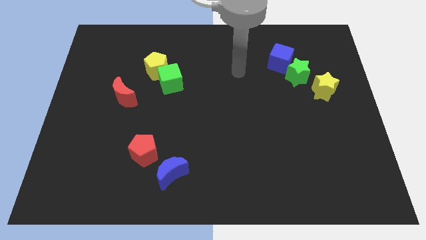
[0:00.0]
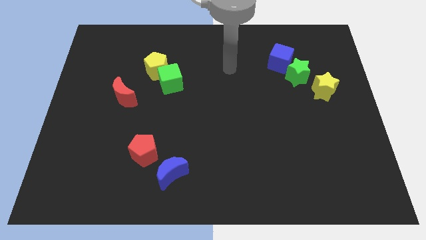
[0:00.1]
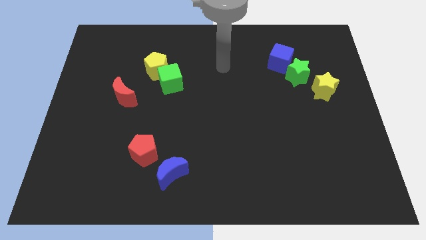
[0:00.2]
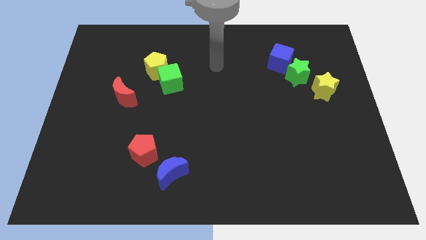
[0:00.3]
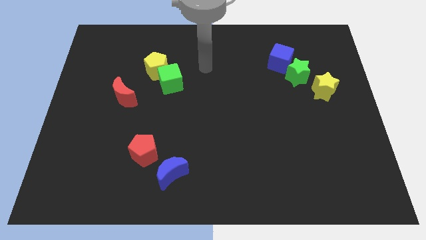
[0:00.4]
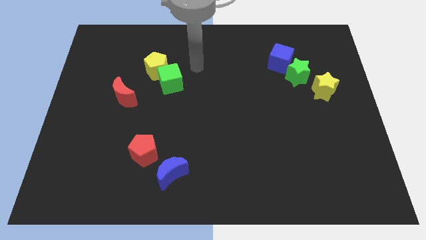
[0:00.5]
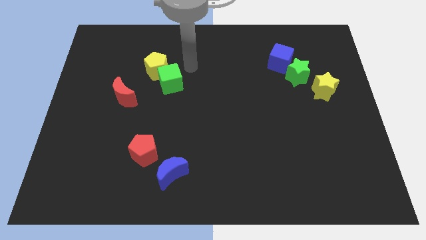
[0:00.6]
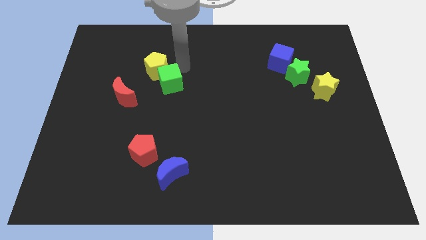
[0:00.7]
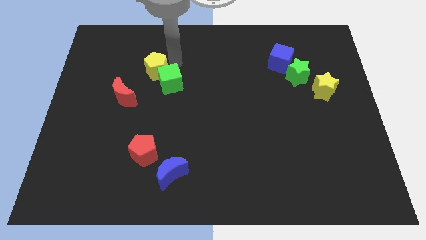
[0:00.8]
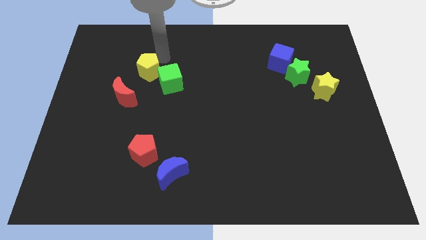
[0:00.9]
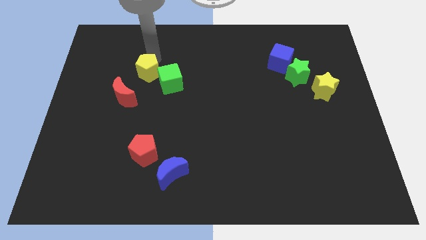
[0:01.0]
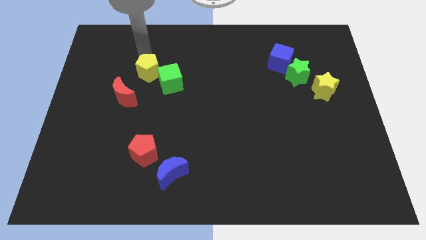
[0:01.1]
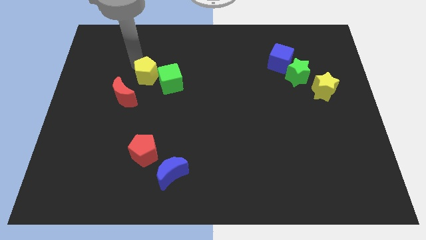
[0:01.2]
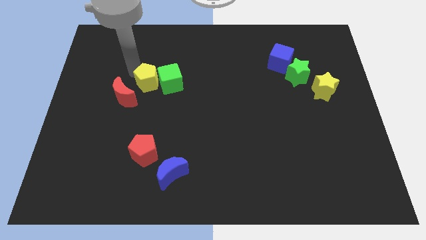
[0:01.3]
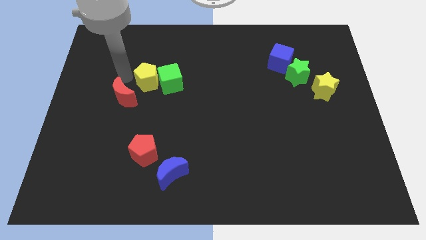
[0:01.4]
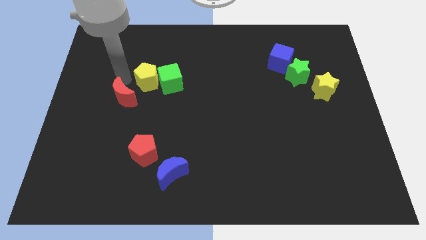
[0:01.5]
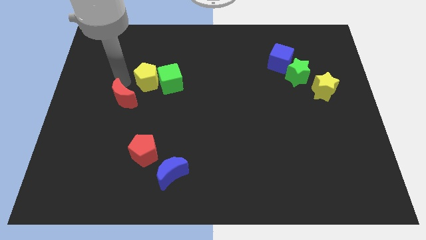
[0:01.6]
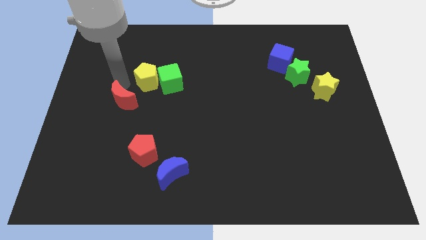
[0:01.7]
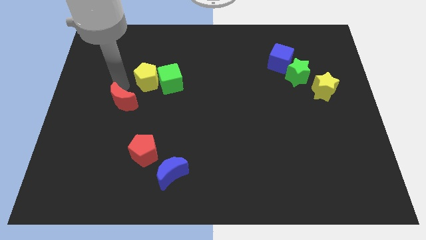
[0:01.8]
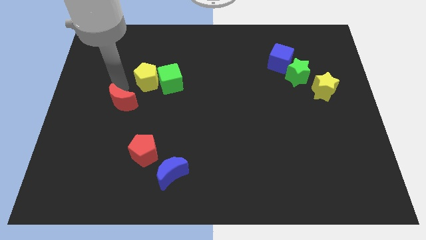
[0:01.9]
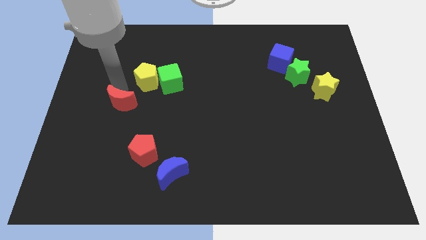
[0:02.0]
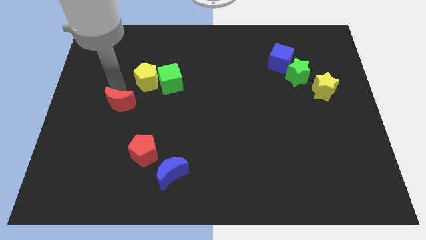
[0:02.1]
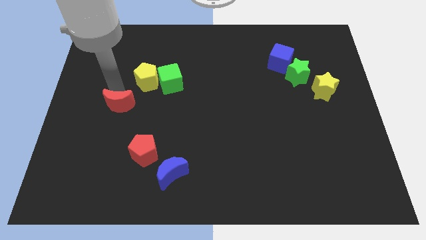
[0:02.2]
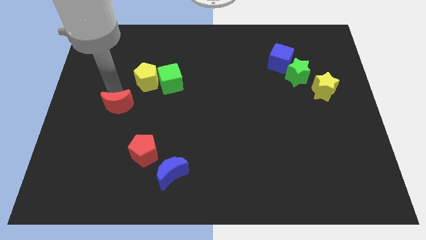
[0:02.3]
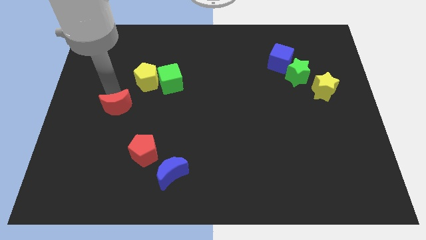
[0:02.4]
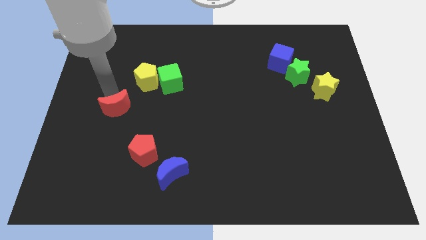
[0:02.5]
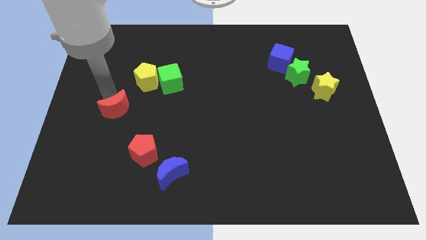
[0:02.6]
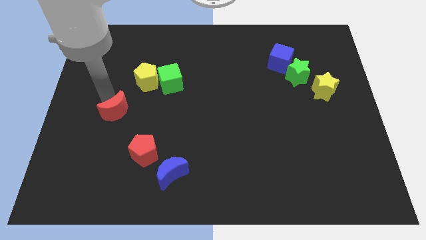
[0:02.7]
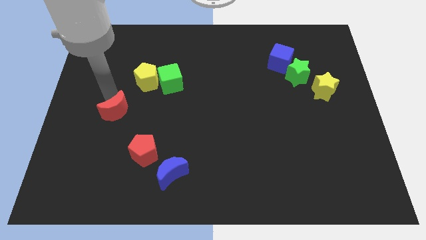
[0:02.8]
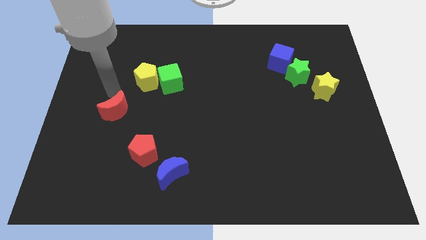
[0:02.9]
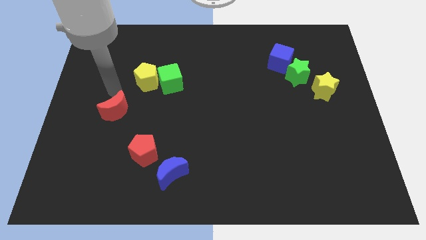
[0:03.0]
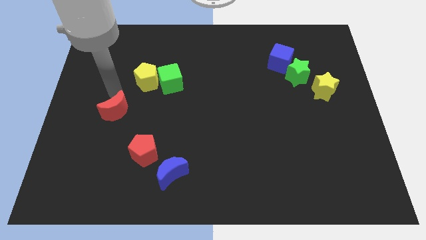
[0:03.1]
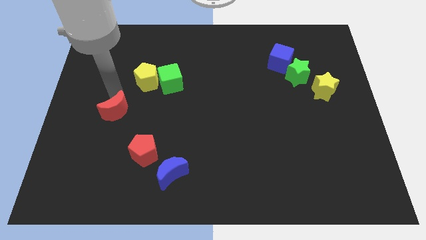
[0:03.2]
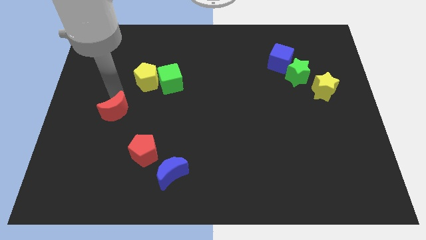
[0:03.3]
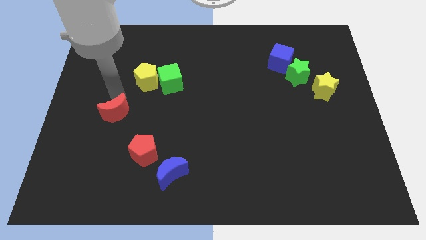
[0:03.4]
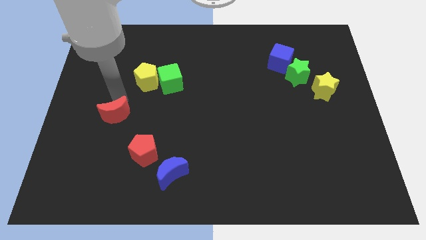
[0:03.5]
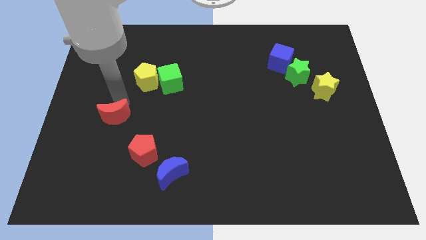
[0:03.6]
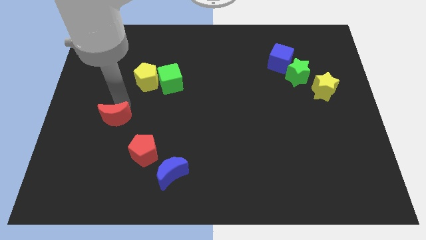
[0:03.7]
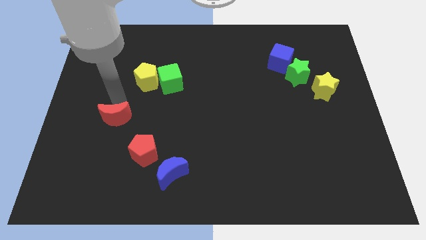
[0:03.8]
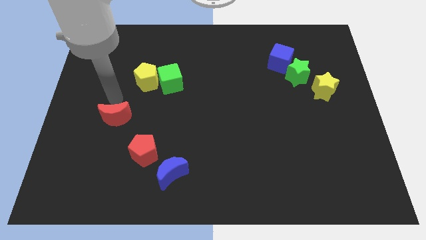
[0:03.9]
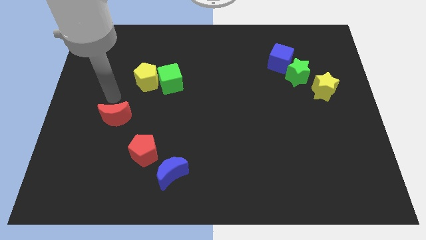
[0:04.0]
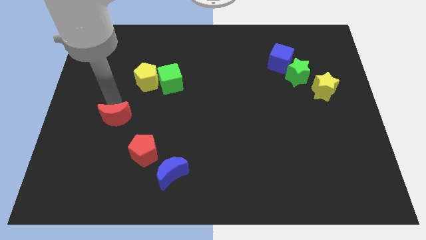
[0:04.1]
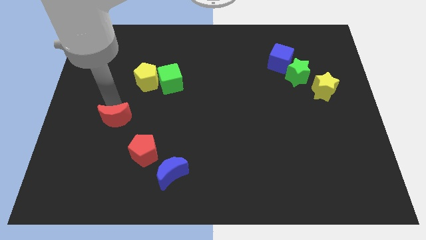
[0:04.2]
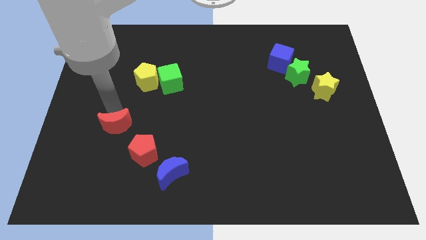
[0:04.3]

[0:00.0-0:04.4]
push the red moon a bit downwards

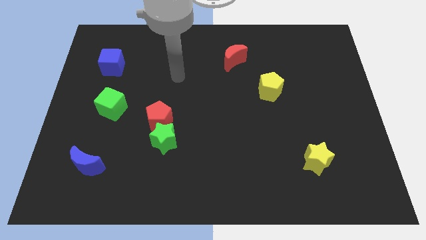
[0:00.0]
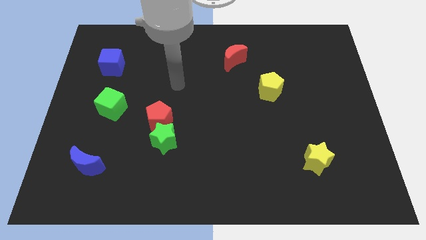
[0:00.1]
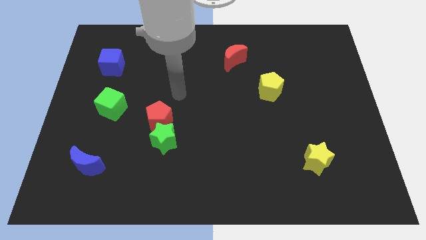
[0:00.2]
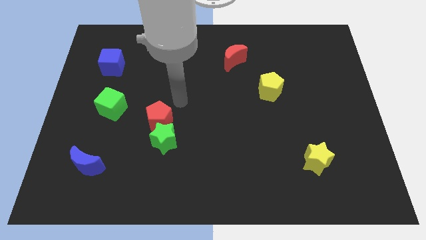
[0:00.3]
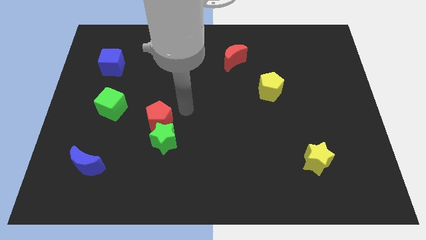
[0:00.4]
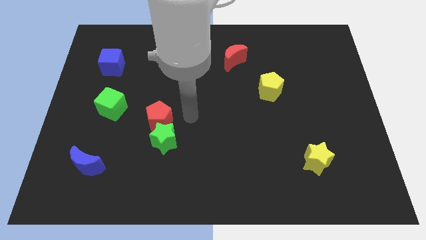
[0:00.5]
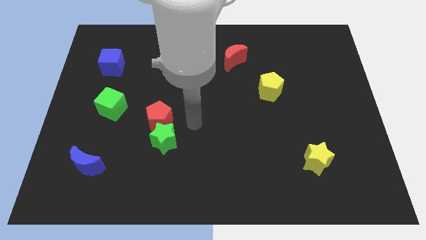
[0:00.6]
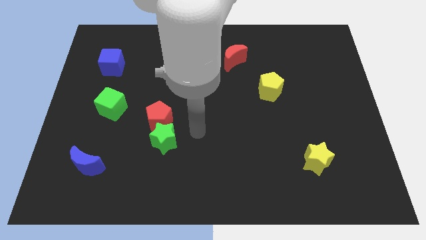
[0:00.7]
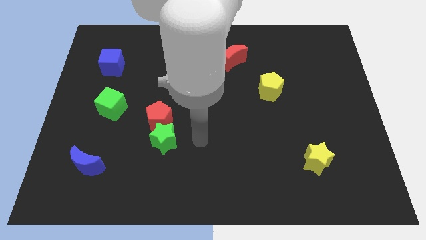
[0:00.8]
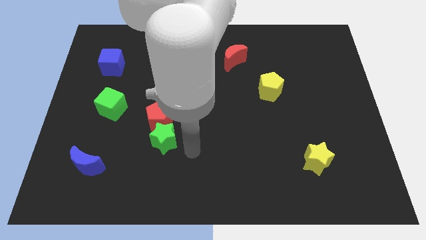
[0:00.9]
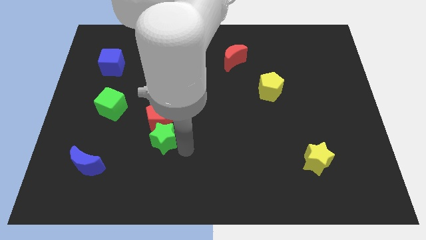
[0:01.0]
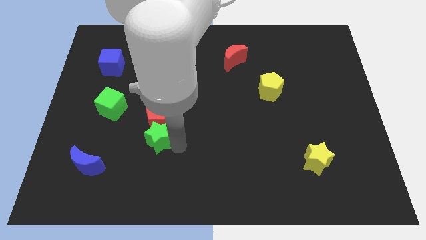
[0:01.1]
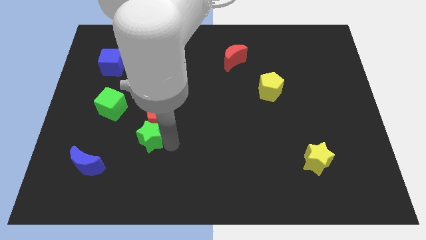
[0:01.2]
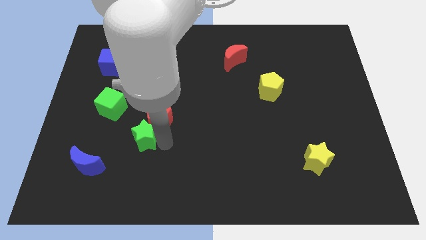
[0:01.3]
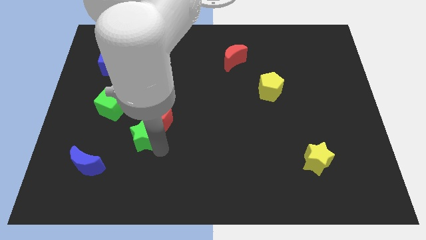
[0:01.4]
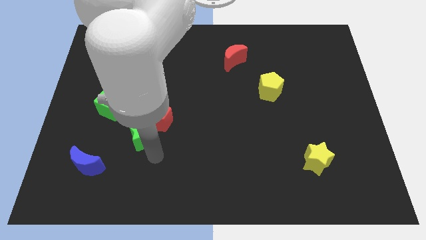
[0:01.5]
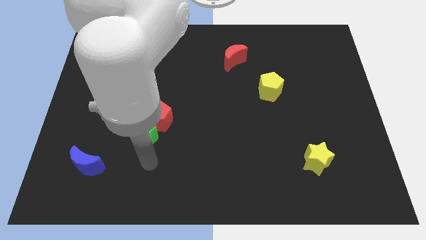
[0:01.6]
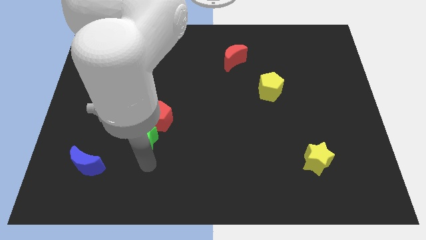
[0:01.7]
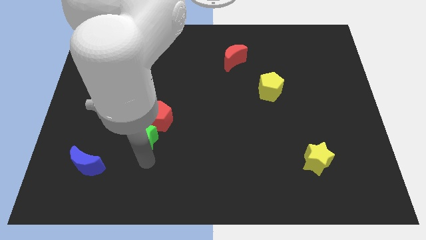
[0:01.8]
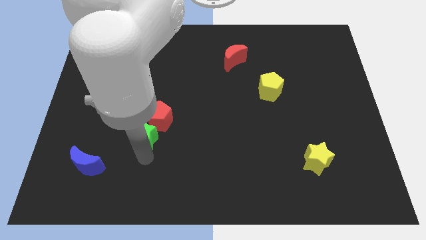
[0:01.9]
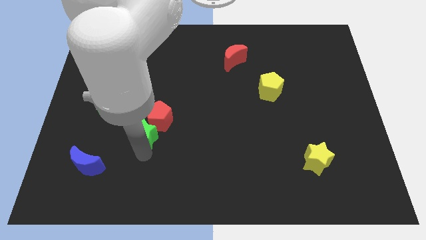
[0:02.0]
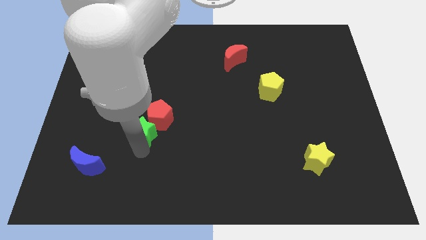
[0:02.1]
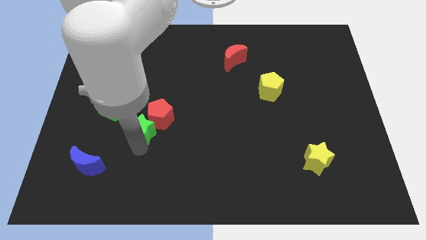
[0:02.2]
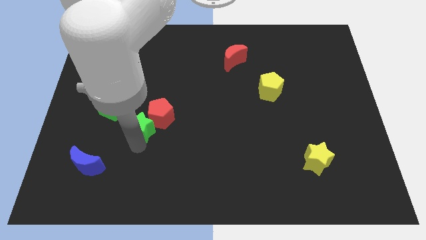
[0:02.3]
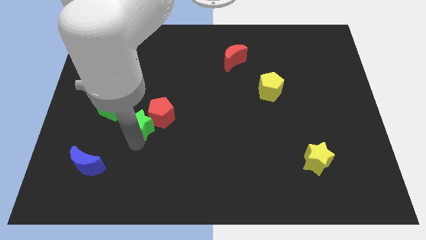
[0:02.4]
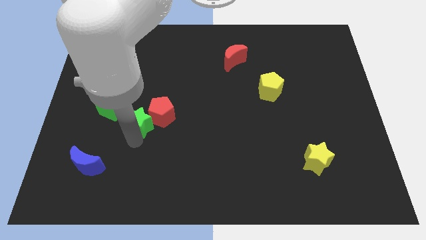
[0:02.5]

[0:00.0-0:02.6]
move the green star a little diagonally upwards and to the left

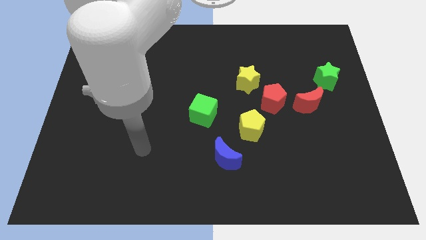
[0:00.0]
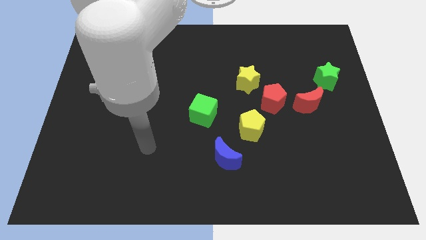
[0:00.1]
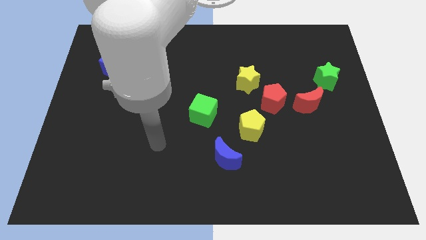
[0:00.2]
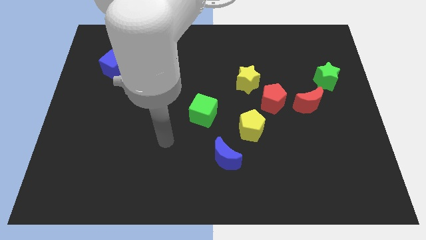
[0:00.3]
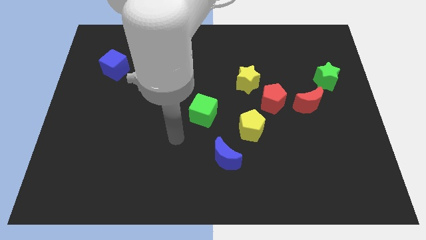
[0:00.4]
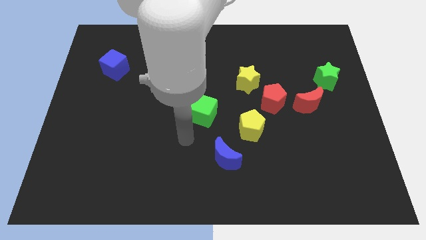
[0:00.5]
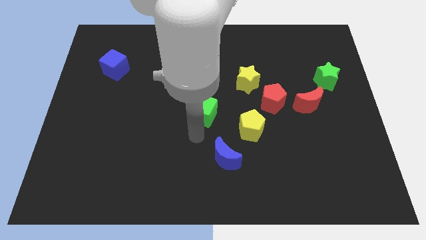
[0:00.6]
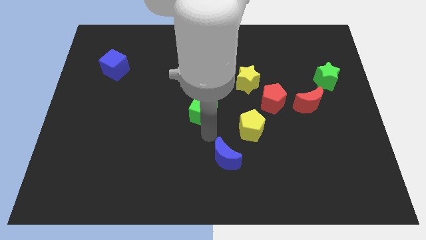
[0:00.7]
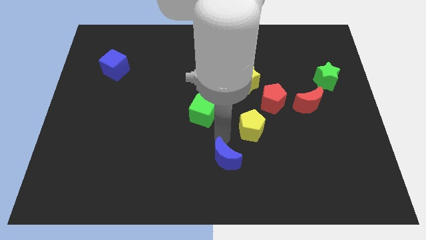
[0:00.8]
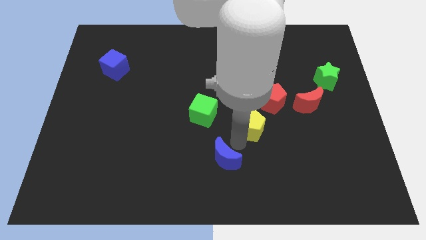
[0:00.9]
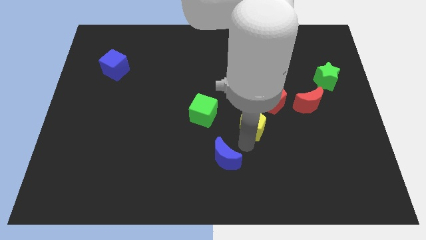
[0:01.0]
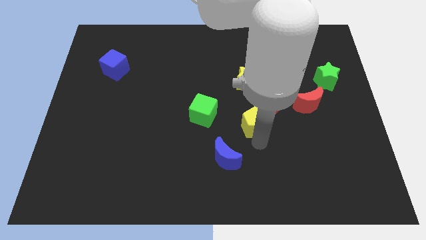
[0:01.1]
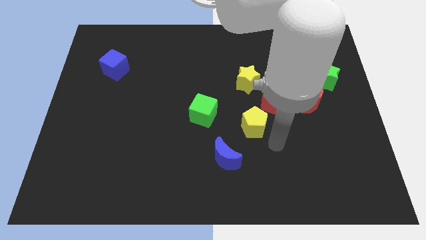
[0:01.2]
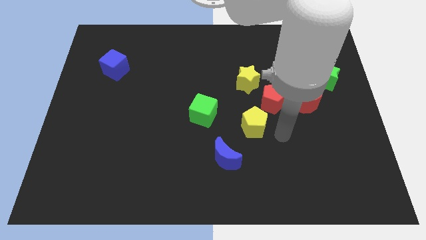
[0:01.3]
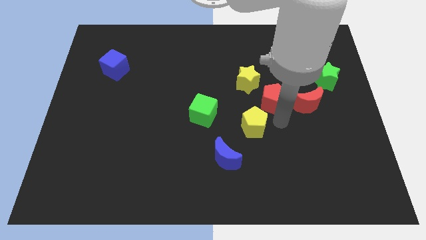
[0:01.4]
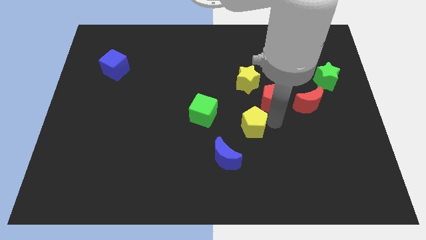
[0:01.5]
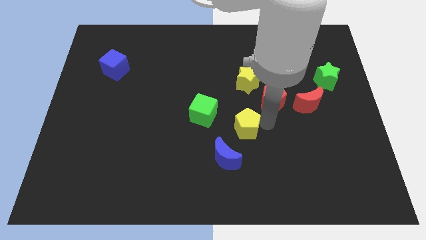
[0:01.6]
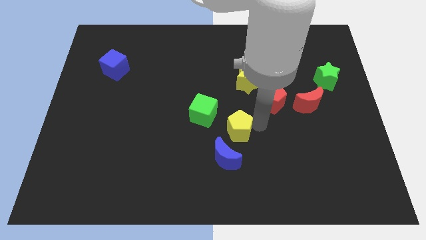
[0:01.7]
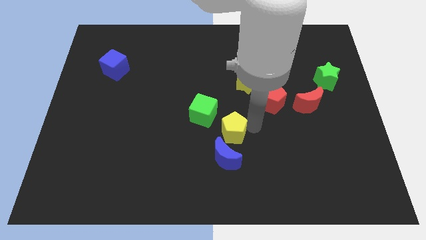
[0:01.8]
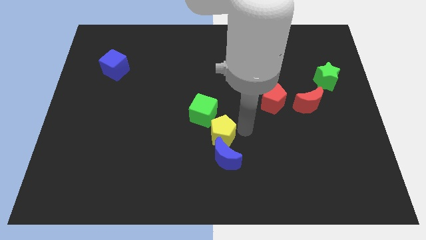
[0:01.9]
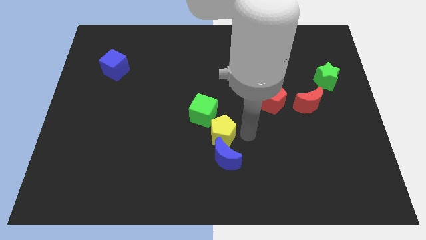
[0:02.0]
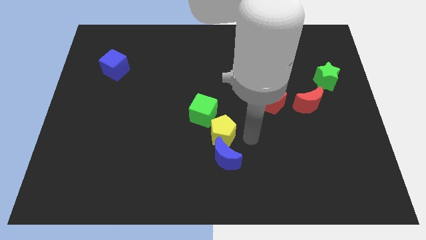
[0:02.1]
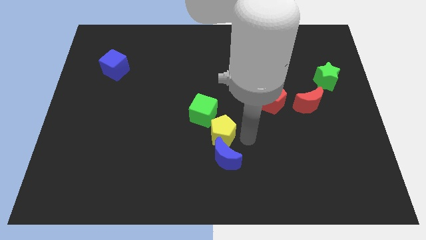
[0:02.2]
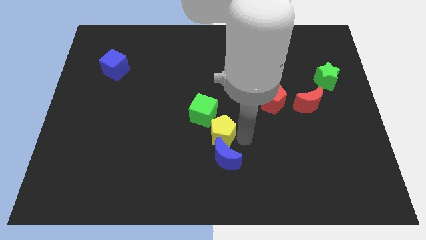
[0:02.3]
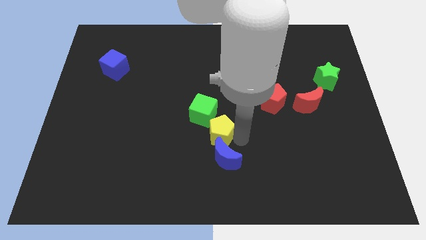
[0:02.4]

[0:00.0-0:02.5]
slightly move the yellow pentagon to the left
